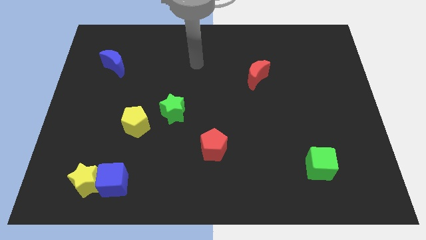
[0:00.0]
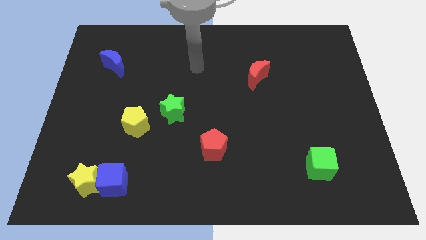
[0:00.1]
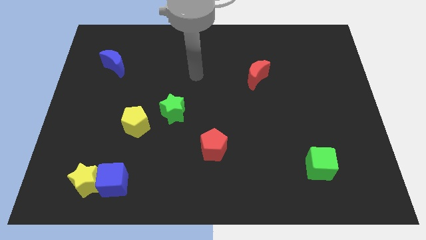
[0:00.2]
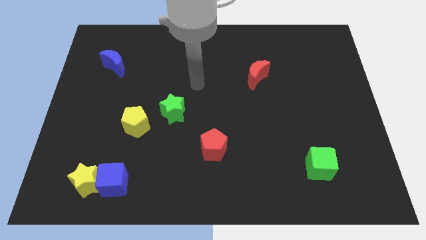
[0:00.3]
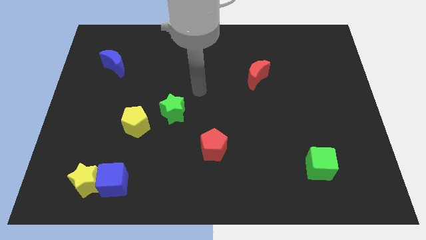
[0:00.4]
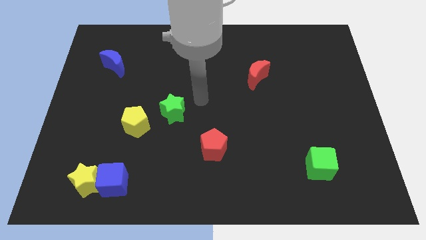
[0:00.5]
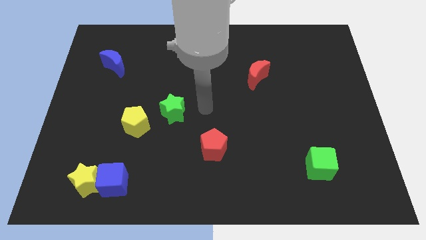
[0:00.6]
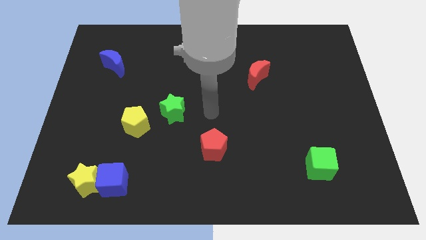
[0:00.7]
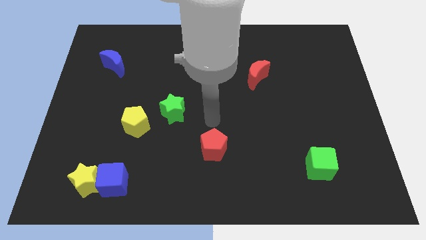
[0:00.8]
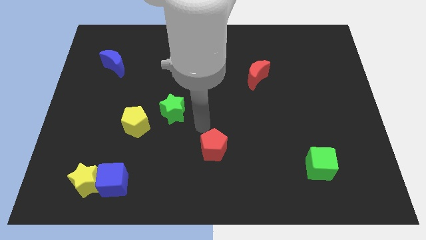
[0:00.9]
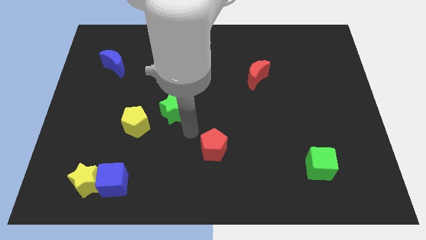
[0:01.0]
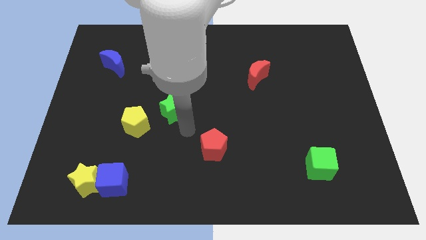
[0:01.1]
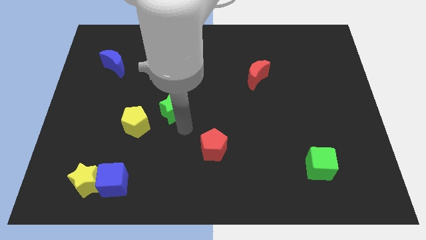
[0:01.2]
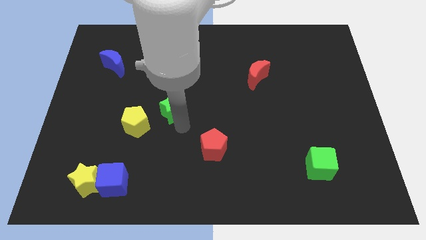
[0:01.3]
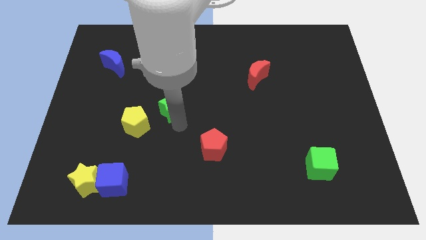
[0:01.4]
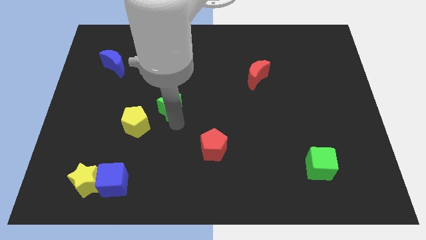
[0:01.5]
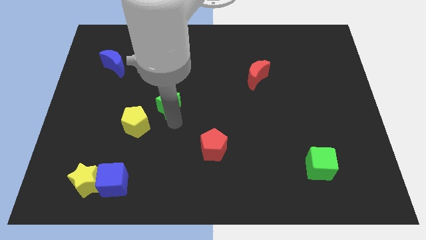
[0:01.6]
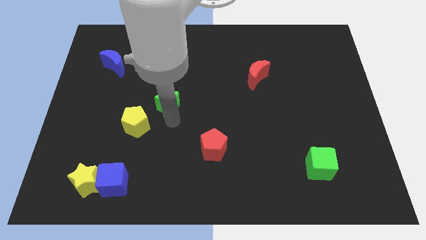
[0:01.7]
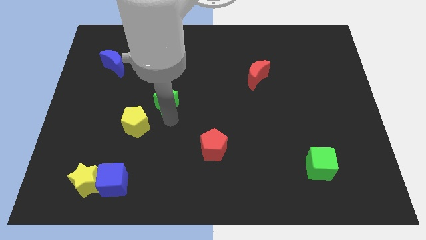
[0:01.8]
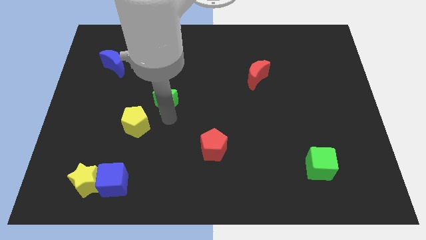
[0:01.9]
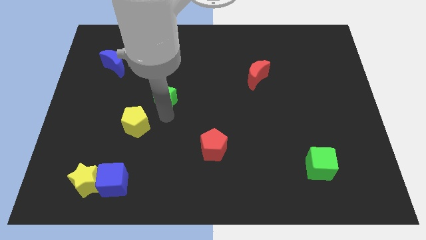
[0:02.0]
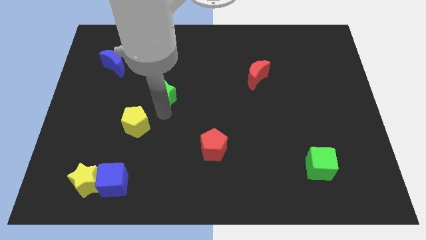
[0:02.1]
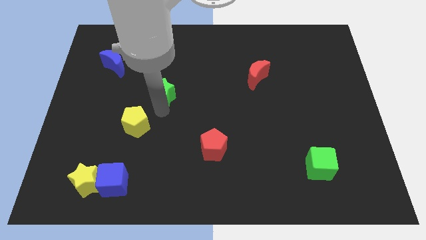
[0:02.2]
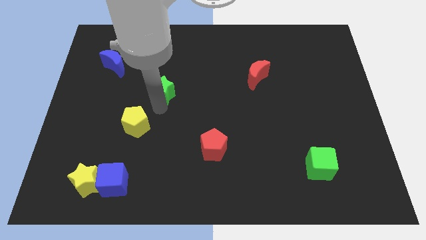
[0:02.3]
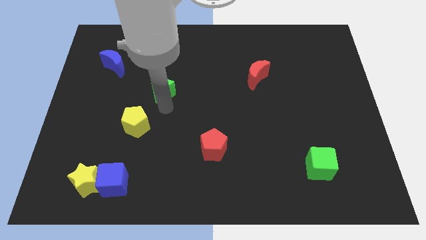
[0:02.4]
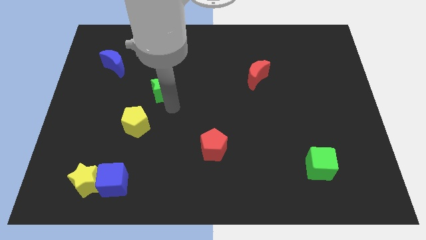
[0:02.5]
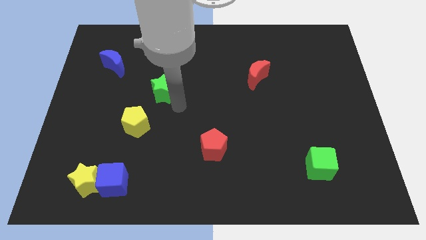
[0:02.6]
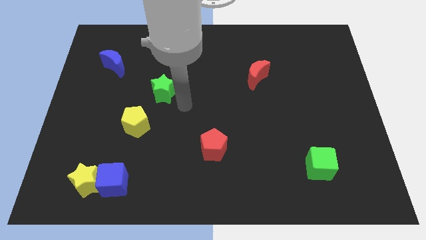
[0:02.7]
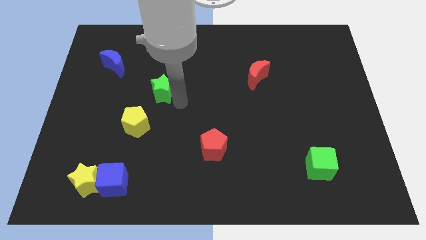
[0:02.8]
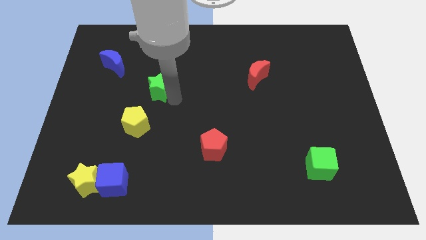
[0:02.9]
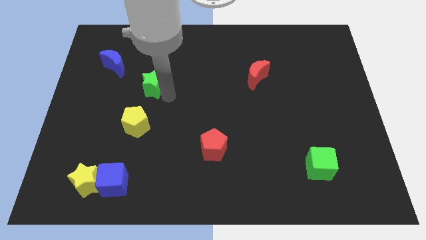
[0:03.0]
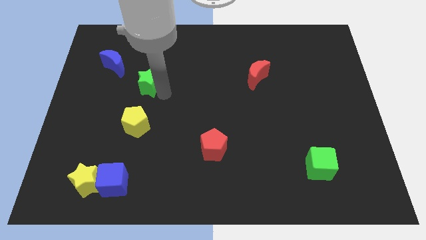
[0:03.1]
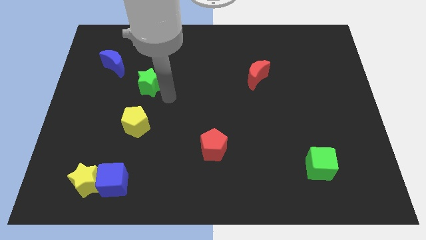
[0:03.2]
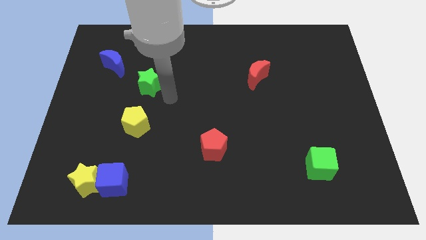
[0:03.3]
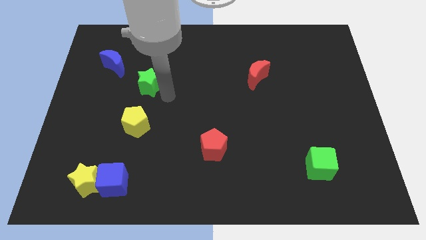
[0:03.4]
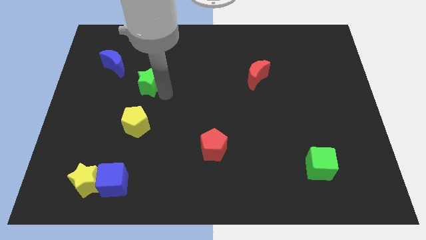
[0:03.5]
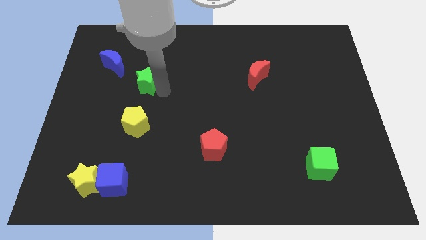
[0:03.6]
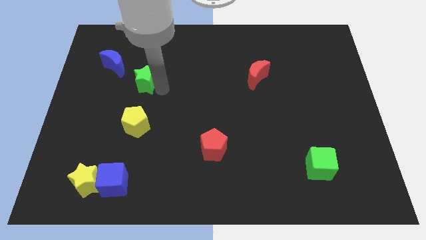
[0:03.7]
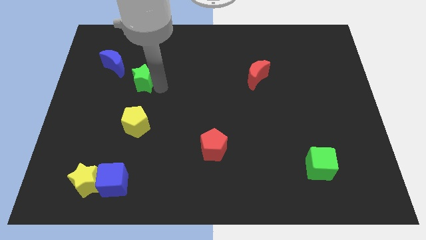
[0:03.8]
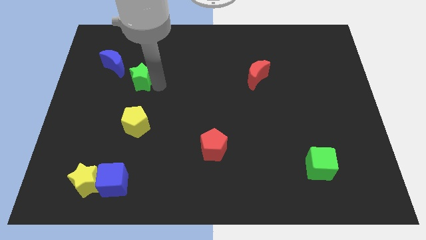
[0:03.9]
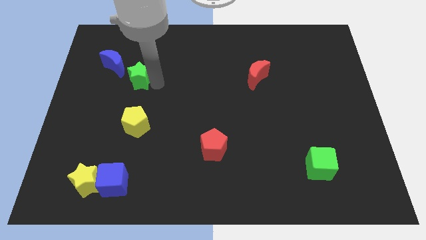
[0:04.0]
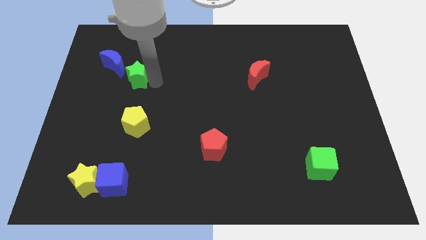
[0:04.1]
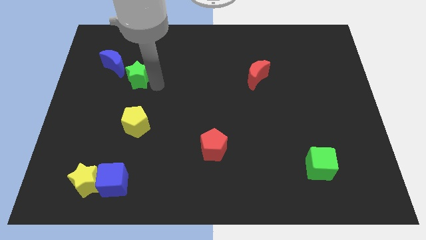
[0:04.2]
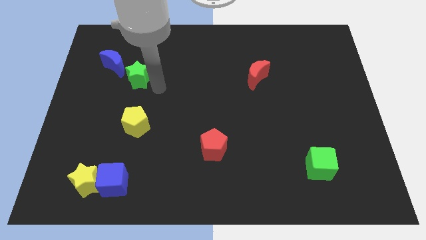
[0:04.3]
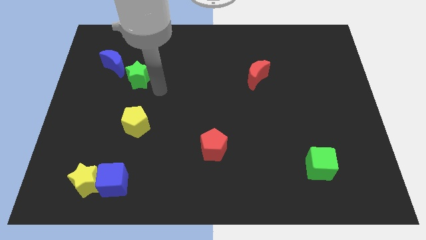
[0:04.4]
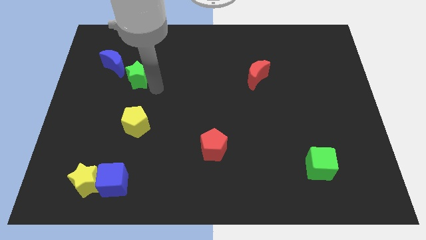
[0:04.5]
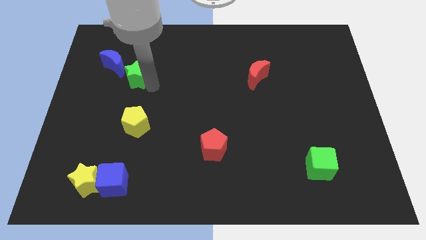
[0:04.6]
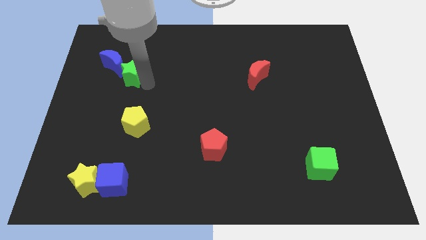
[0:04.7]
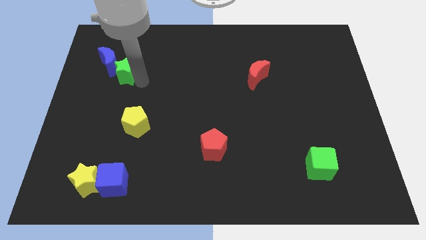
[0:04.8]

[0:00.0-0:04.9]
put the green star towards the blue moon

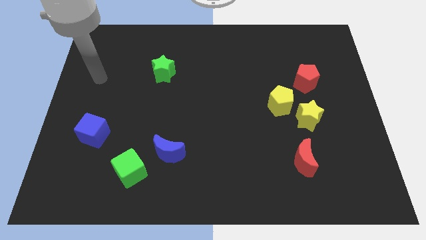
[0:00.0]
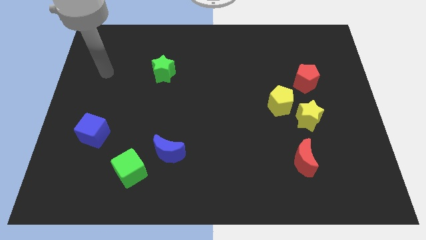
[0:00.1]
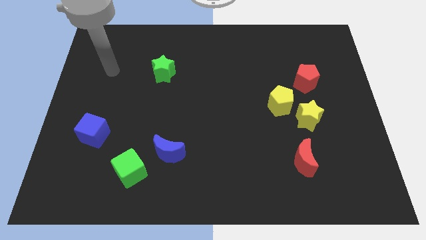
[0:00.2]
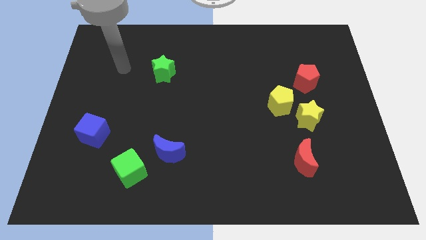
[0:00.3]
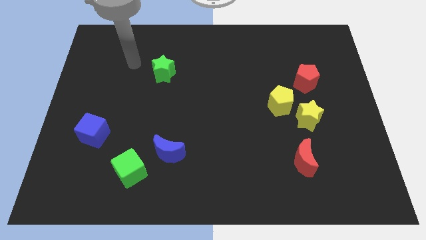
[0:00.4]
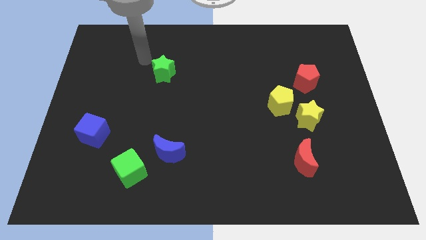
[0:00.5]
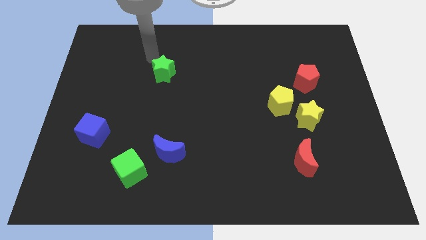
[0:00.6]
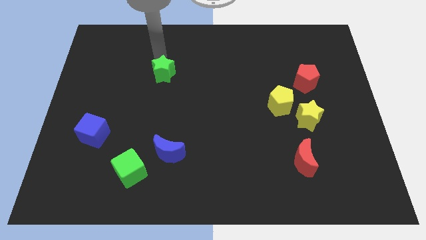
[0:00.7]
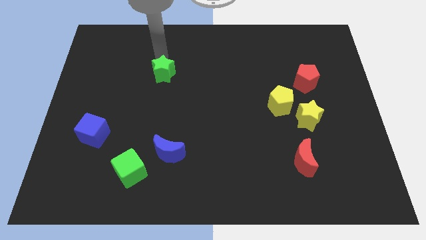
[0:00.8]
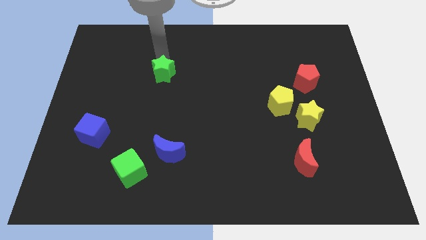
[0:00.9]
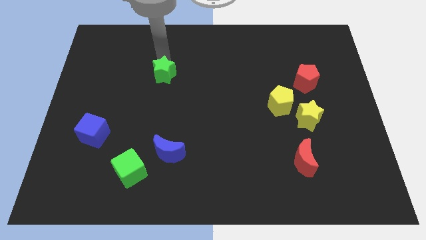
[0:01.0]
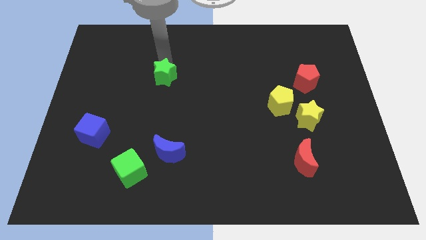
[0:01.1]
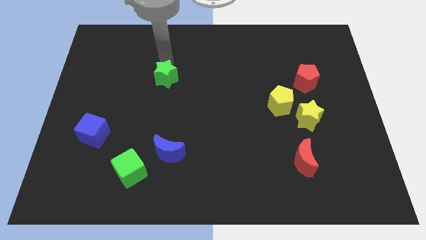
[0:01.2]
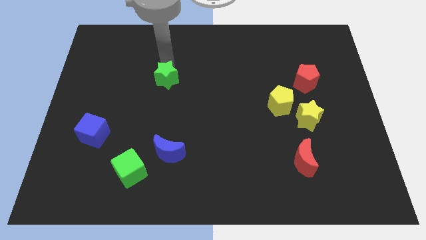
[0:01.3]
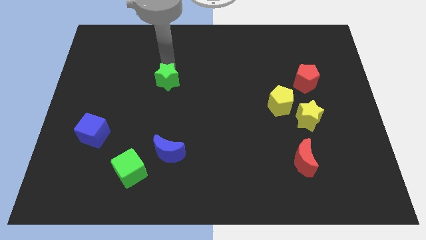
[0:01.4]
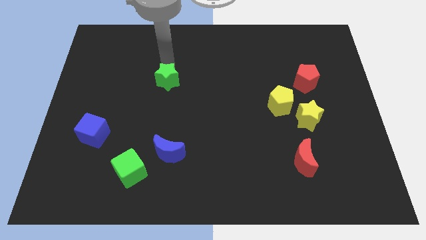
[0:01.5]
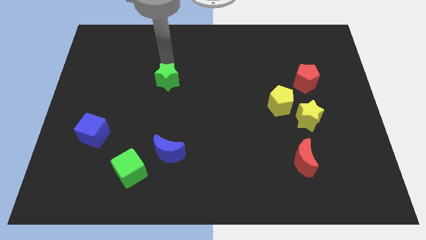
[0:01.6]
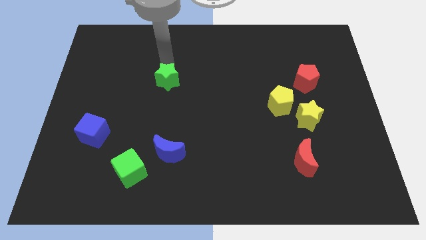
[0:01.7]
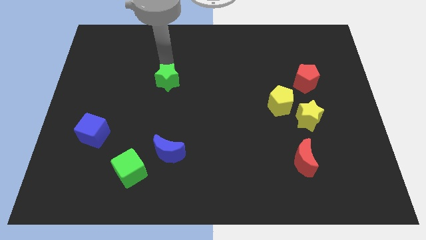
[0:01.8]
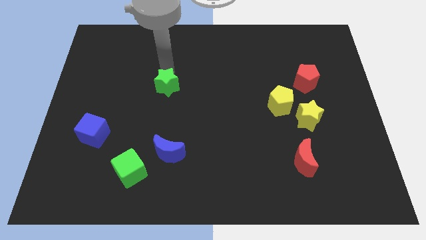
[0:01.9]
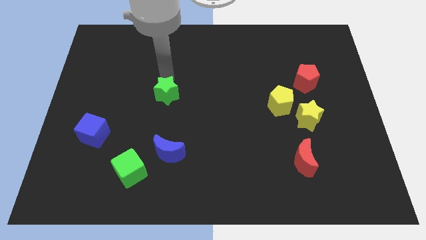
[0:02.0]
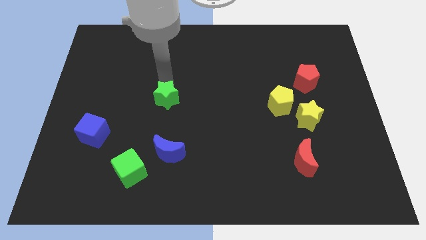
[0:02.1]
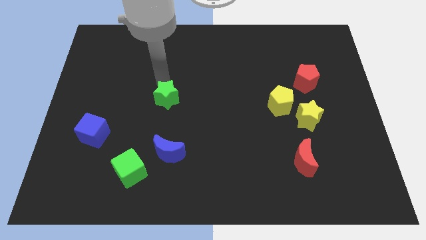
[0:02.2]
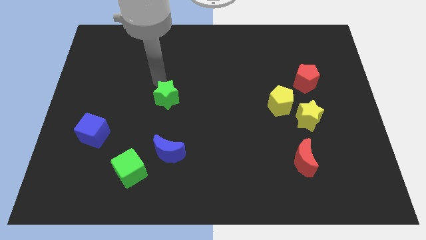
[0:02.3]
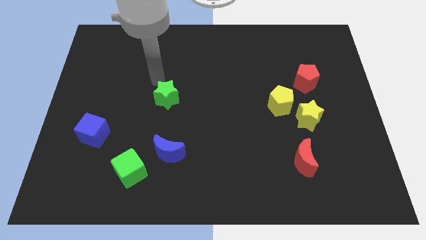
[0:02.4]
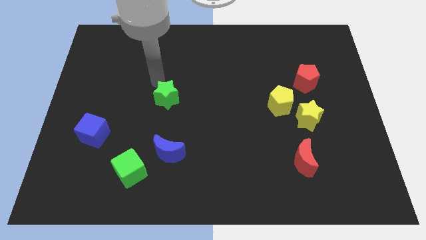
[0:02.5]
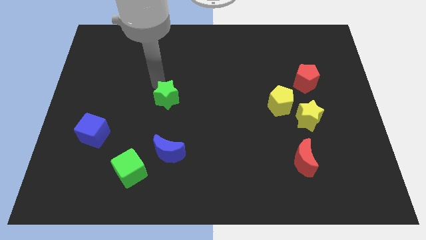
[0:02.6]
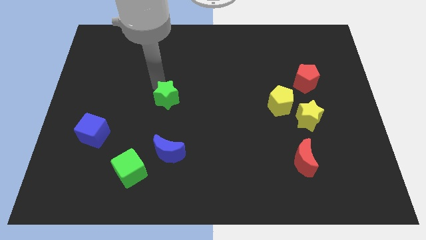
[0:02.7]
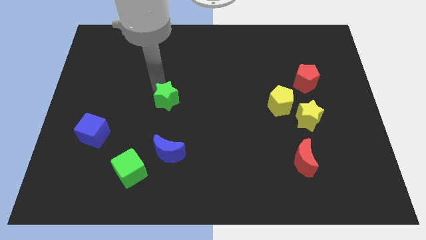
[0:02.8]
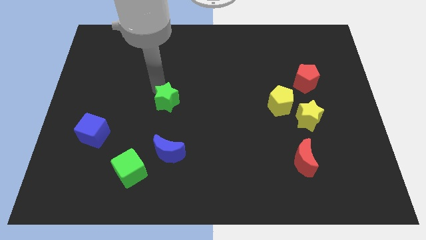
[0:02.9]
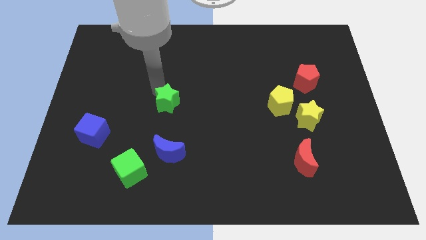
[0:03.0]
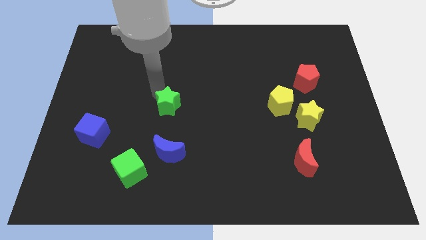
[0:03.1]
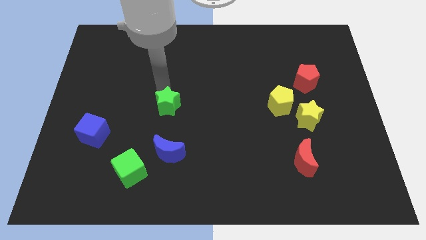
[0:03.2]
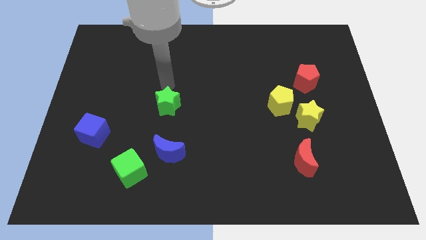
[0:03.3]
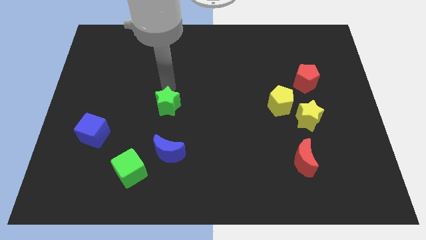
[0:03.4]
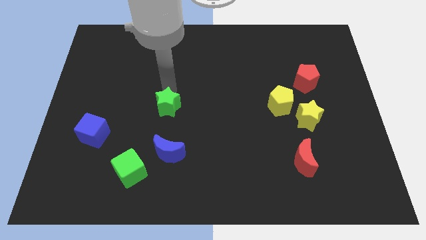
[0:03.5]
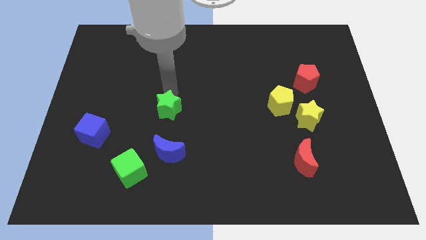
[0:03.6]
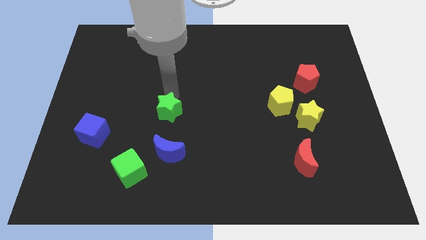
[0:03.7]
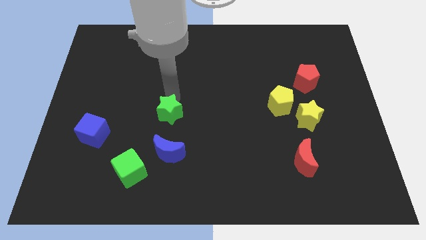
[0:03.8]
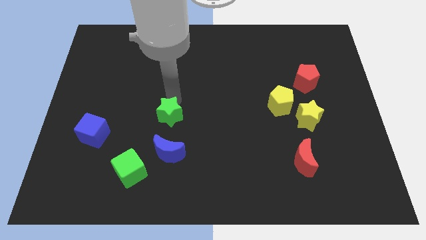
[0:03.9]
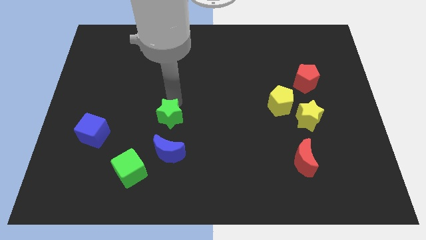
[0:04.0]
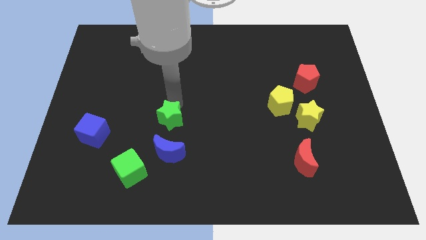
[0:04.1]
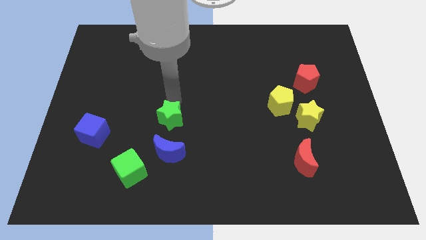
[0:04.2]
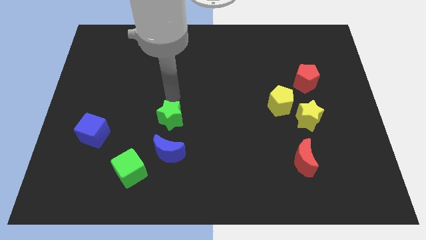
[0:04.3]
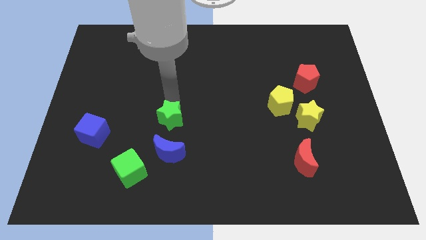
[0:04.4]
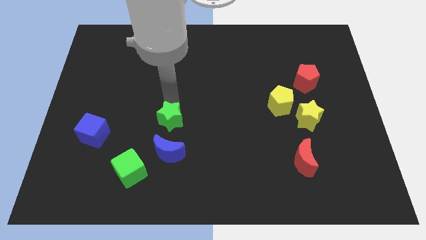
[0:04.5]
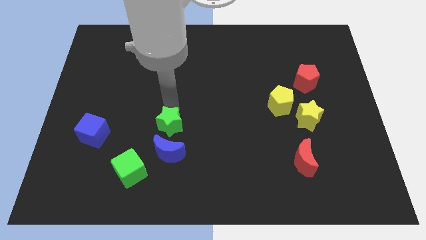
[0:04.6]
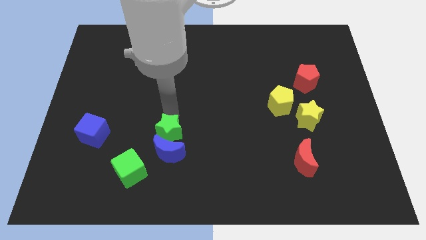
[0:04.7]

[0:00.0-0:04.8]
move the green star to the blue moon
